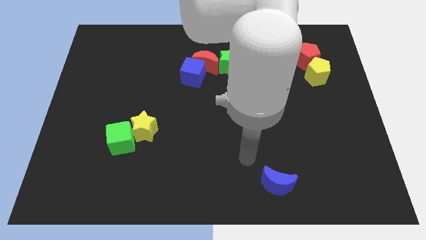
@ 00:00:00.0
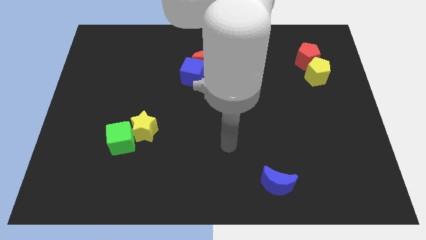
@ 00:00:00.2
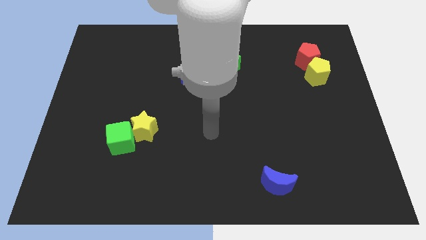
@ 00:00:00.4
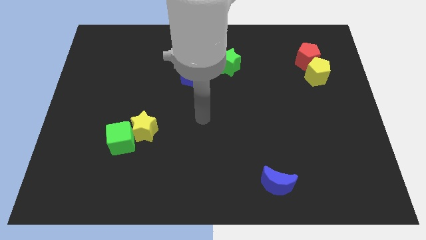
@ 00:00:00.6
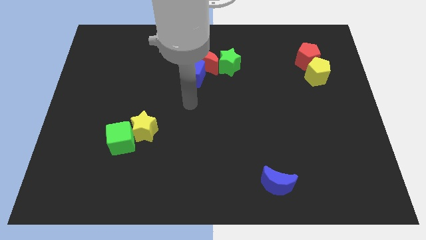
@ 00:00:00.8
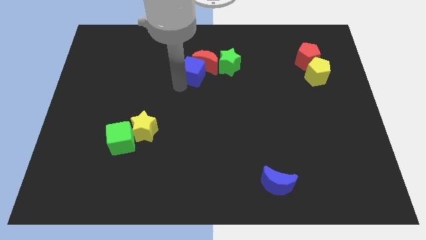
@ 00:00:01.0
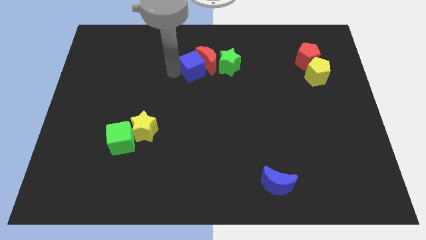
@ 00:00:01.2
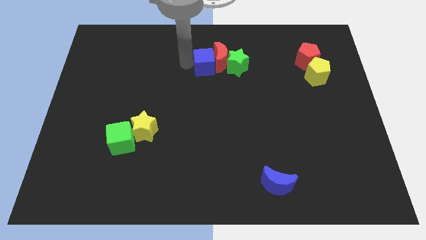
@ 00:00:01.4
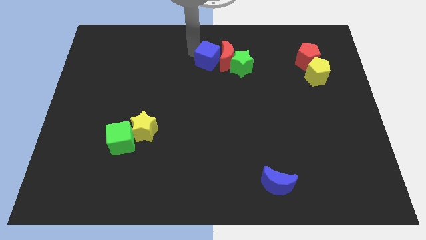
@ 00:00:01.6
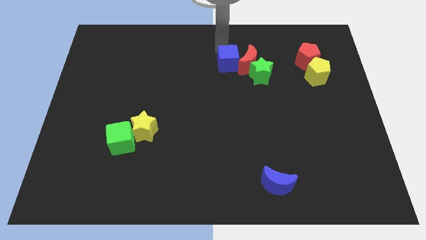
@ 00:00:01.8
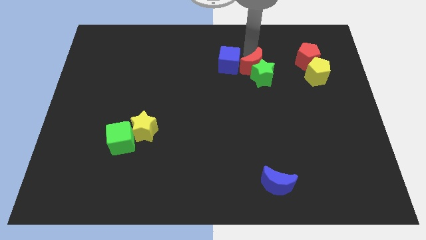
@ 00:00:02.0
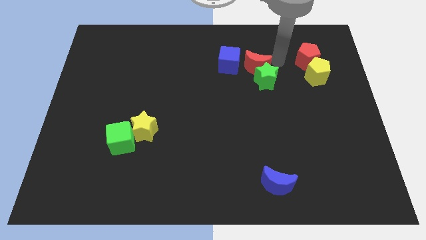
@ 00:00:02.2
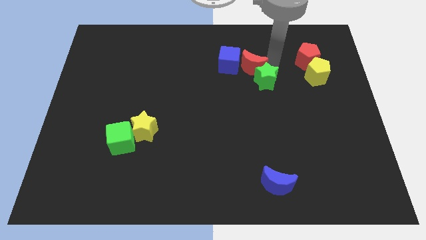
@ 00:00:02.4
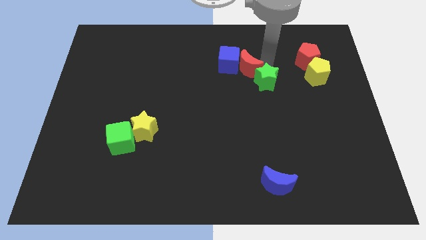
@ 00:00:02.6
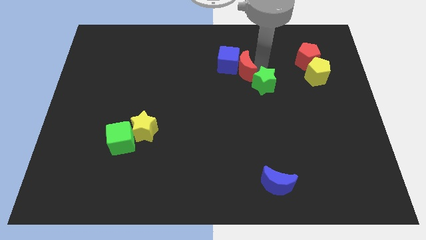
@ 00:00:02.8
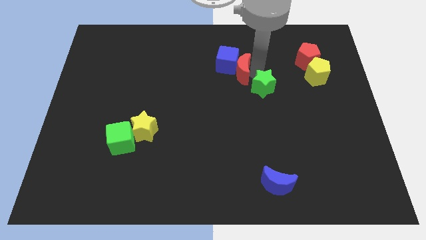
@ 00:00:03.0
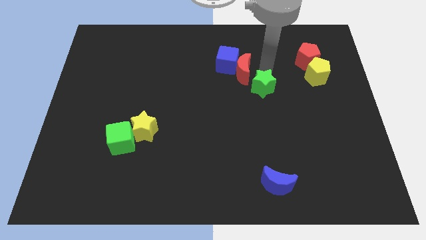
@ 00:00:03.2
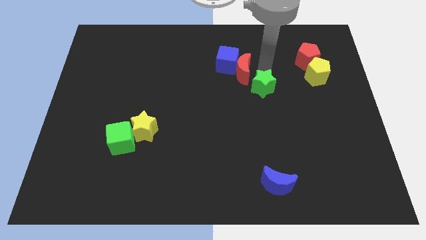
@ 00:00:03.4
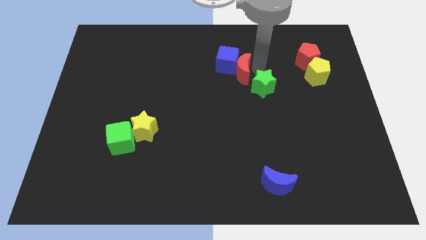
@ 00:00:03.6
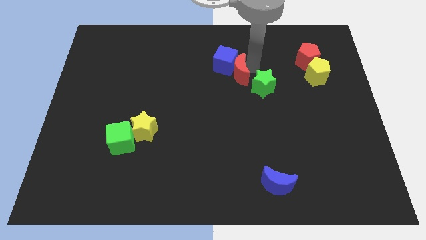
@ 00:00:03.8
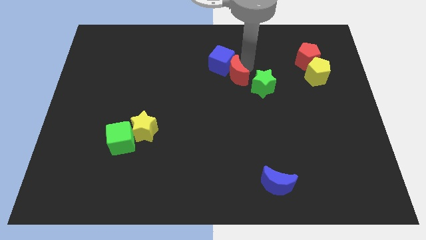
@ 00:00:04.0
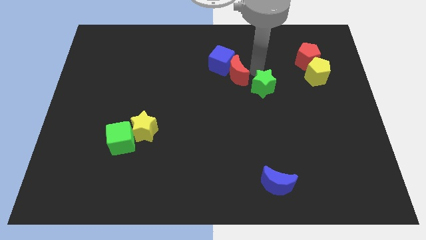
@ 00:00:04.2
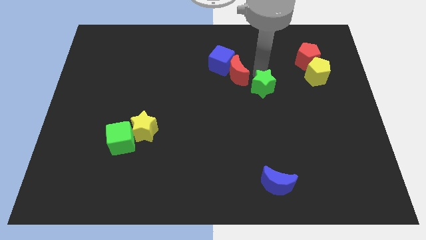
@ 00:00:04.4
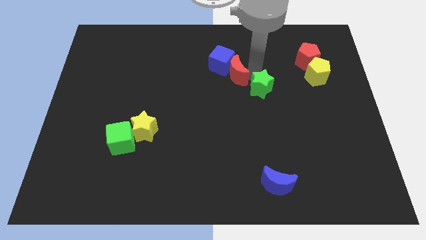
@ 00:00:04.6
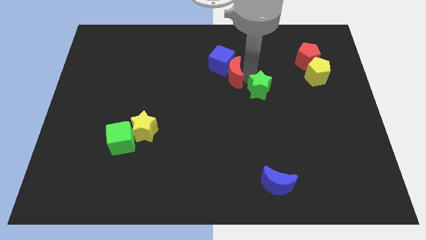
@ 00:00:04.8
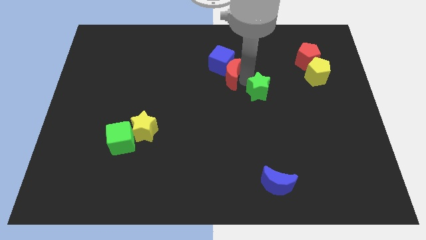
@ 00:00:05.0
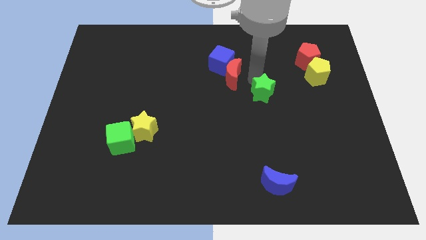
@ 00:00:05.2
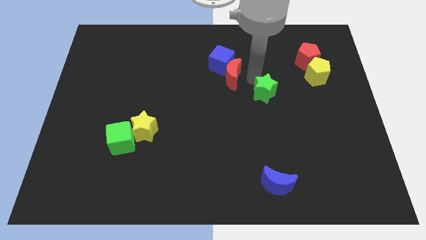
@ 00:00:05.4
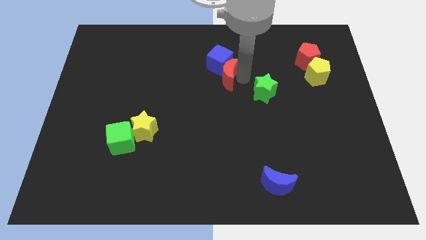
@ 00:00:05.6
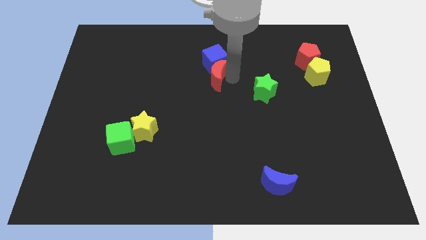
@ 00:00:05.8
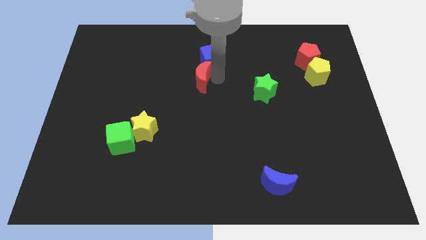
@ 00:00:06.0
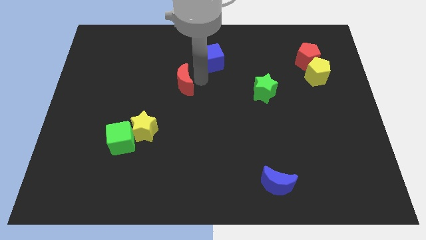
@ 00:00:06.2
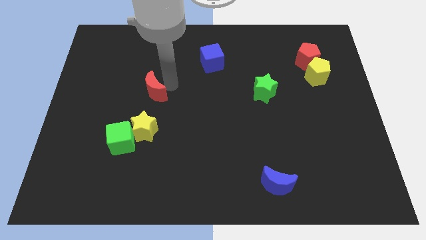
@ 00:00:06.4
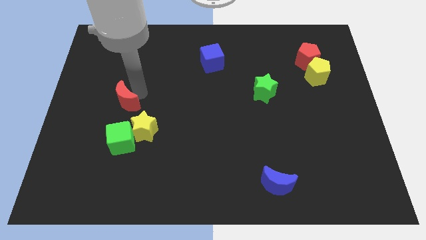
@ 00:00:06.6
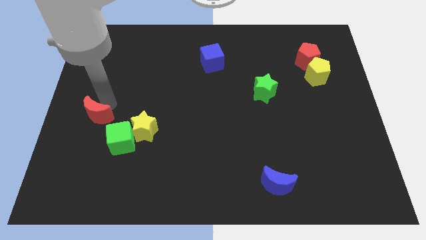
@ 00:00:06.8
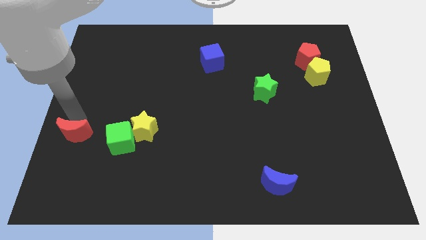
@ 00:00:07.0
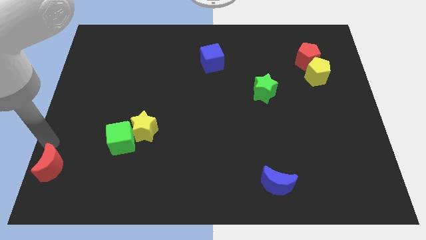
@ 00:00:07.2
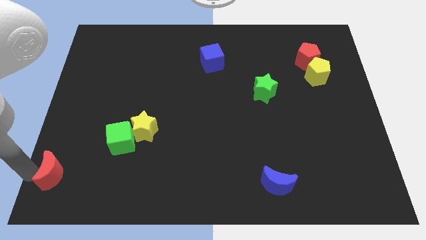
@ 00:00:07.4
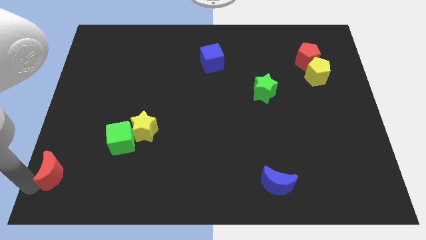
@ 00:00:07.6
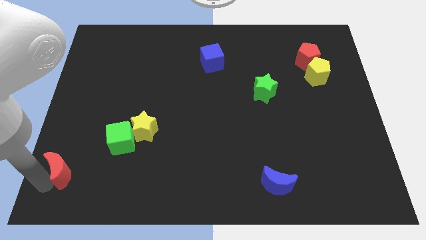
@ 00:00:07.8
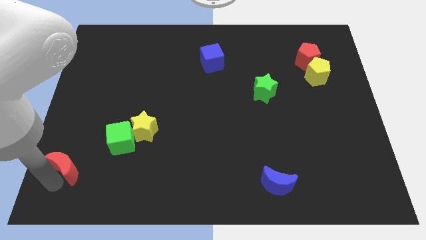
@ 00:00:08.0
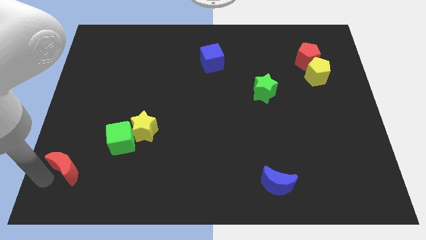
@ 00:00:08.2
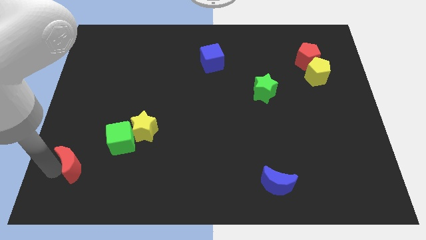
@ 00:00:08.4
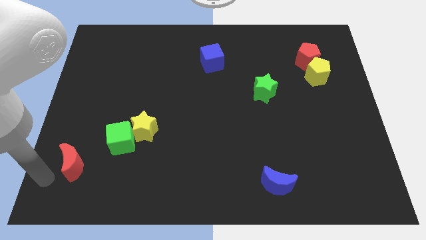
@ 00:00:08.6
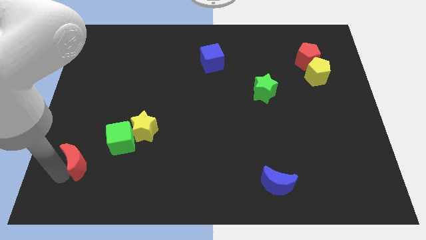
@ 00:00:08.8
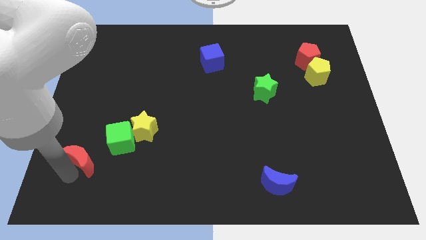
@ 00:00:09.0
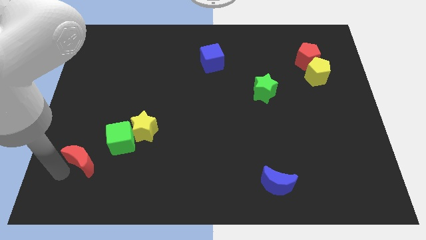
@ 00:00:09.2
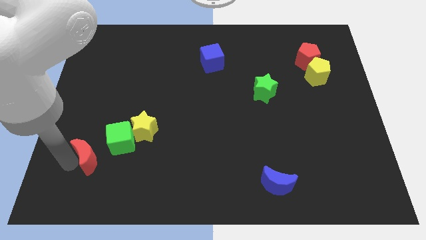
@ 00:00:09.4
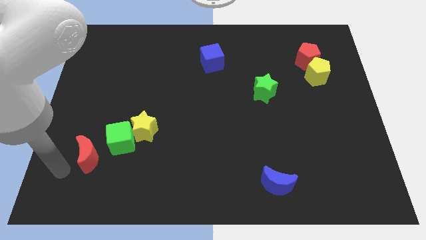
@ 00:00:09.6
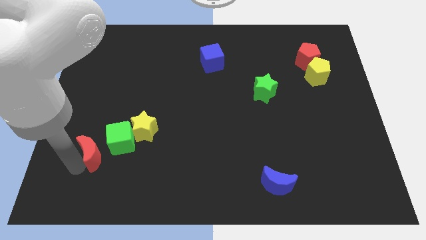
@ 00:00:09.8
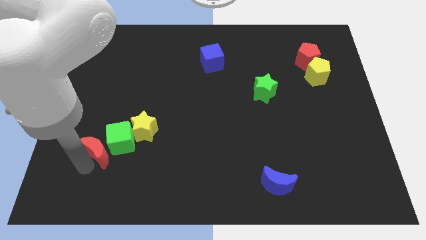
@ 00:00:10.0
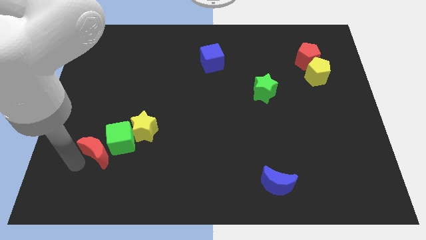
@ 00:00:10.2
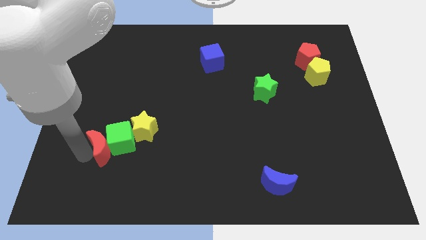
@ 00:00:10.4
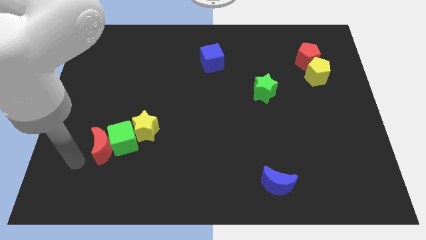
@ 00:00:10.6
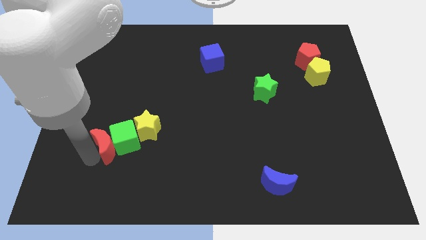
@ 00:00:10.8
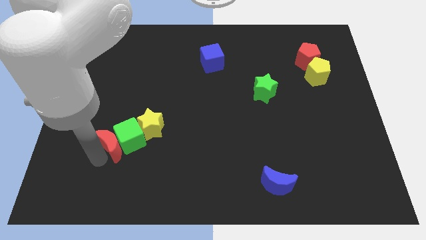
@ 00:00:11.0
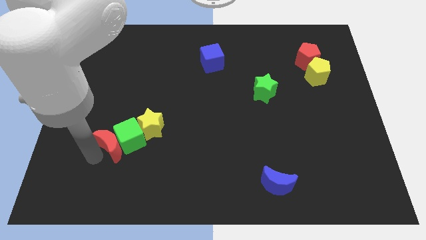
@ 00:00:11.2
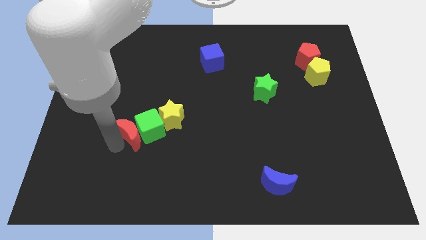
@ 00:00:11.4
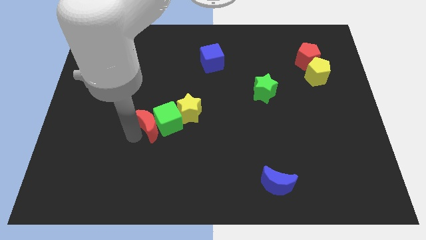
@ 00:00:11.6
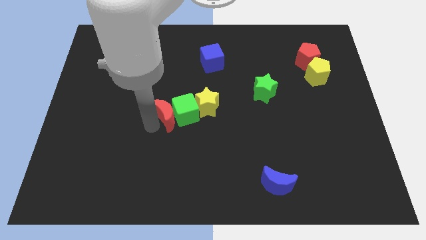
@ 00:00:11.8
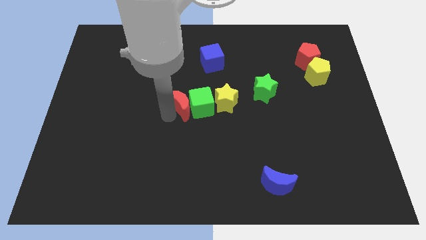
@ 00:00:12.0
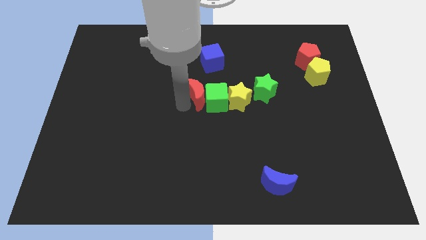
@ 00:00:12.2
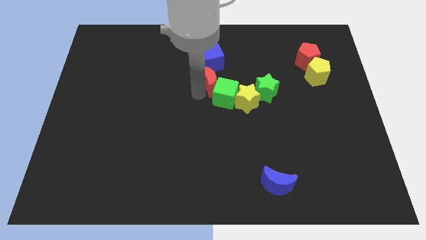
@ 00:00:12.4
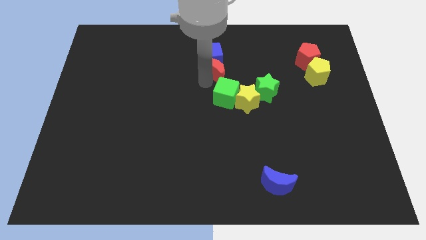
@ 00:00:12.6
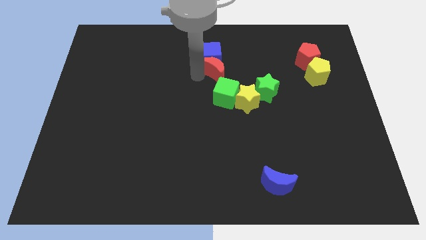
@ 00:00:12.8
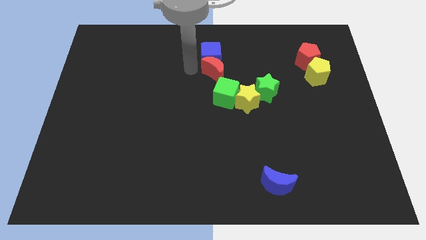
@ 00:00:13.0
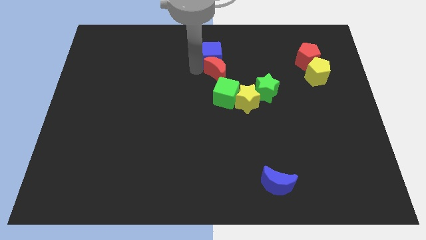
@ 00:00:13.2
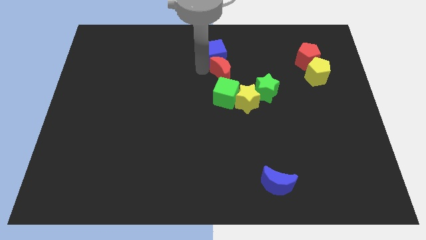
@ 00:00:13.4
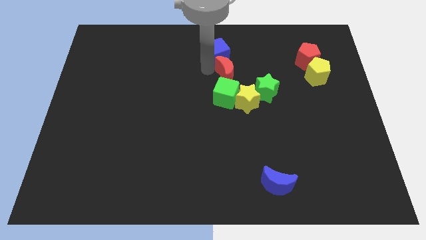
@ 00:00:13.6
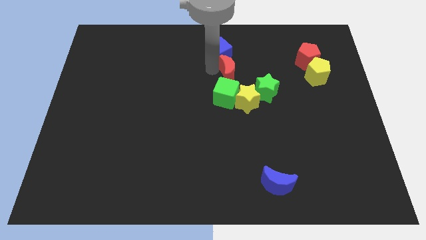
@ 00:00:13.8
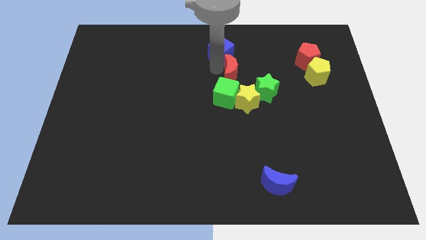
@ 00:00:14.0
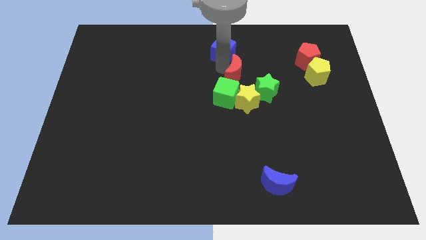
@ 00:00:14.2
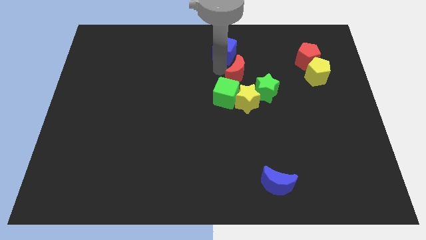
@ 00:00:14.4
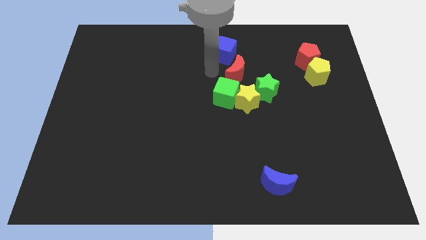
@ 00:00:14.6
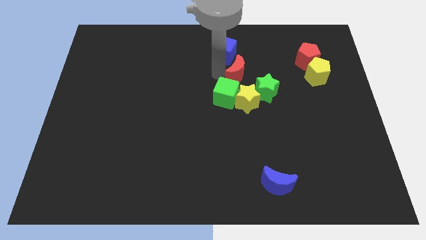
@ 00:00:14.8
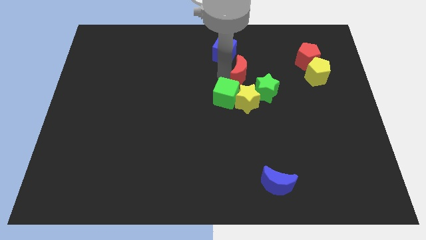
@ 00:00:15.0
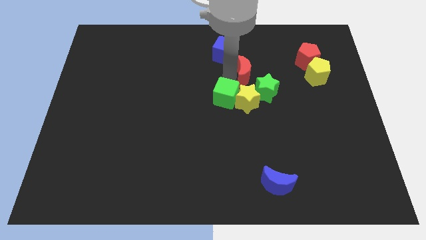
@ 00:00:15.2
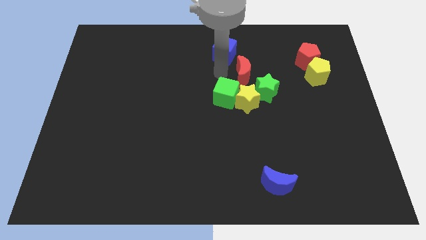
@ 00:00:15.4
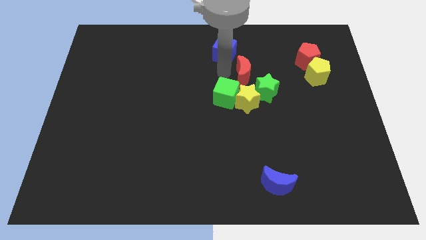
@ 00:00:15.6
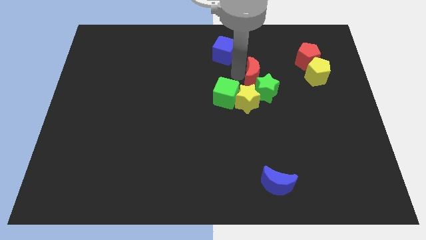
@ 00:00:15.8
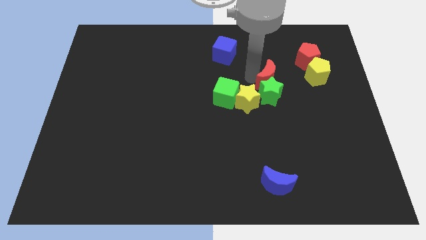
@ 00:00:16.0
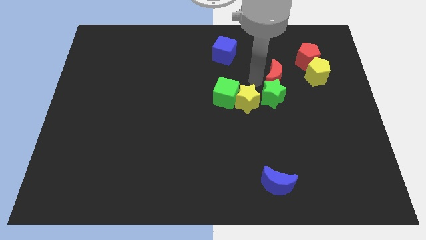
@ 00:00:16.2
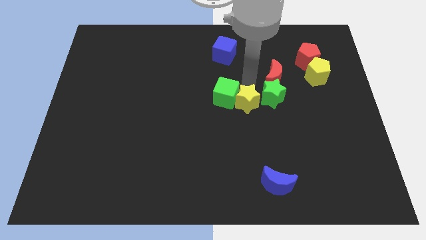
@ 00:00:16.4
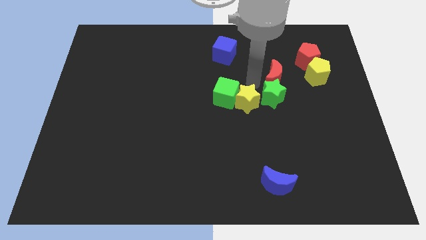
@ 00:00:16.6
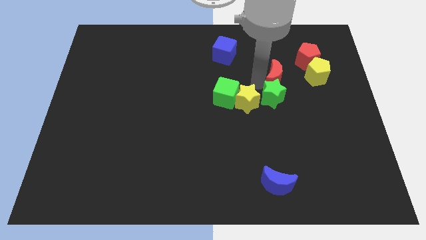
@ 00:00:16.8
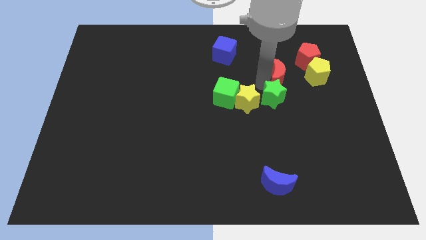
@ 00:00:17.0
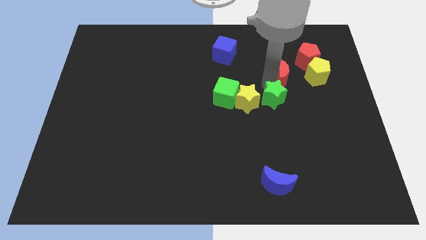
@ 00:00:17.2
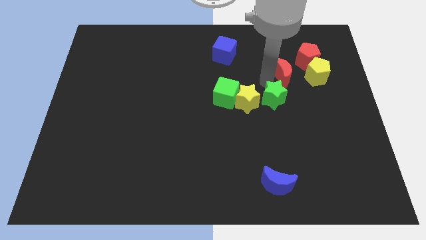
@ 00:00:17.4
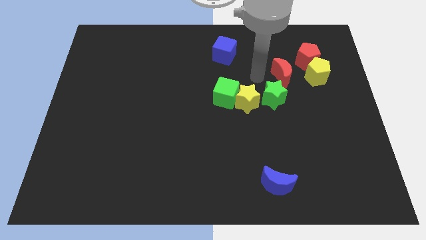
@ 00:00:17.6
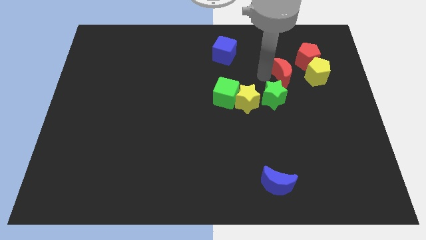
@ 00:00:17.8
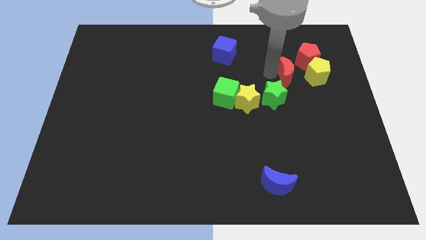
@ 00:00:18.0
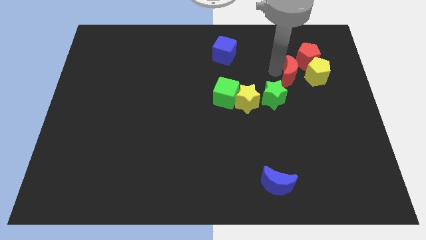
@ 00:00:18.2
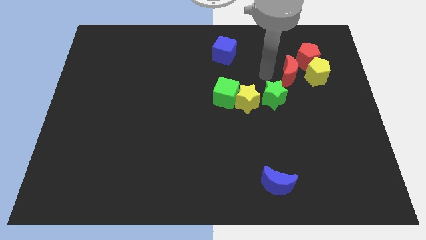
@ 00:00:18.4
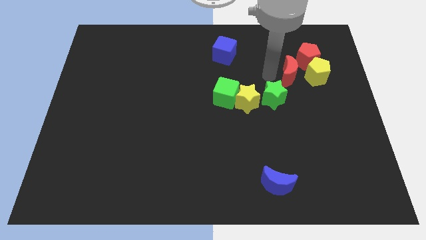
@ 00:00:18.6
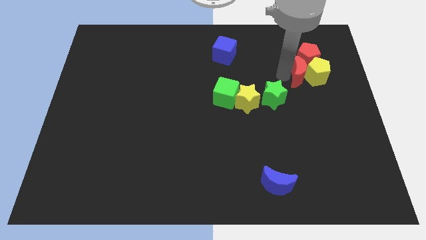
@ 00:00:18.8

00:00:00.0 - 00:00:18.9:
slide the red moon towards the yellow pentagon
